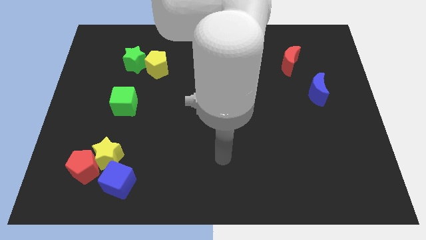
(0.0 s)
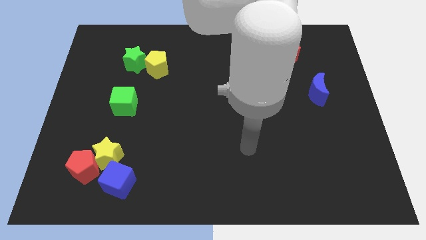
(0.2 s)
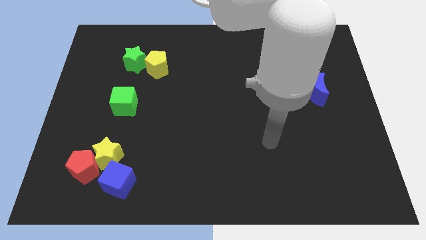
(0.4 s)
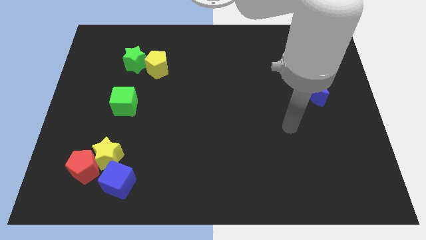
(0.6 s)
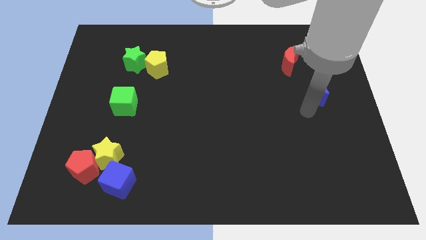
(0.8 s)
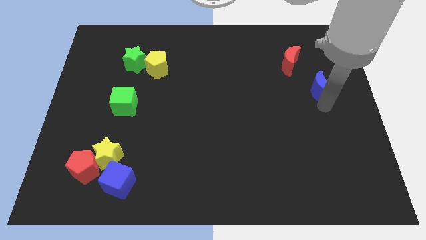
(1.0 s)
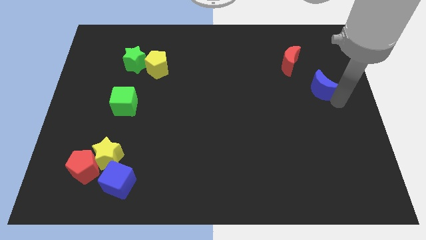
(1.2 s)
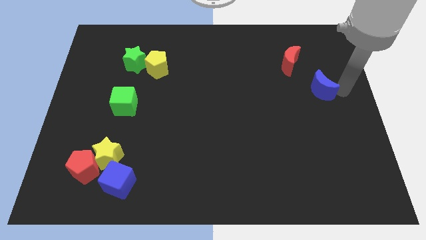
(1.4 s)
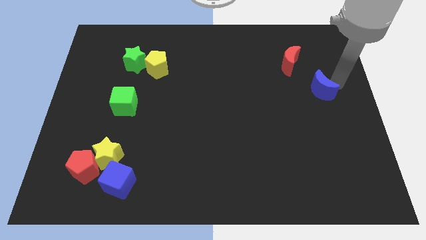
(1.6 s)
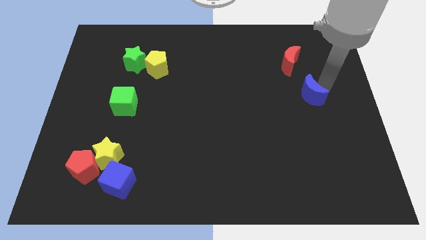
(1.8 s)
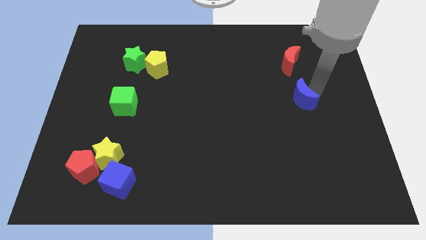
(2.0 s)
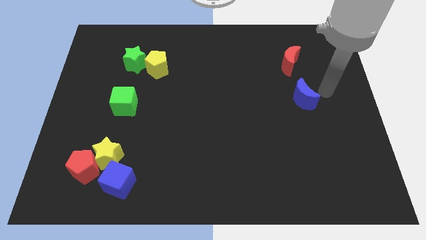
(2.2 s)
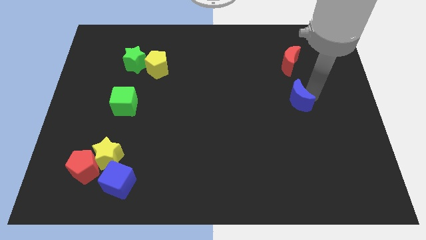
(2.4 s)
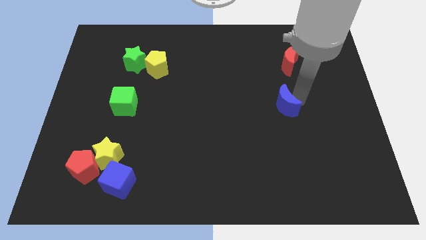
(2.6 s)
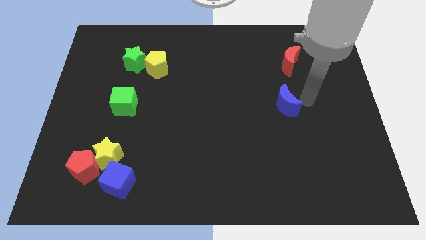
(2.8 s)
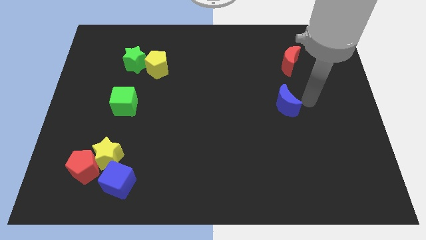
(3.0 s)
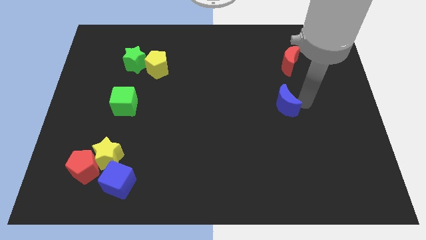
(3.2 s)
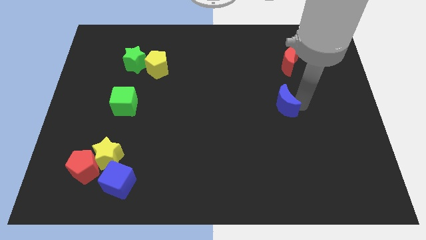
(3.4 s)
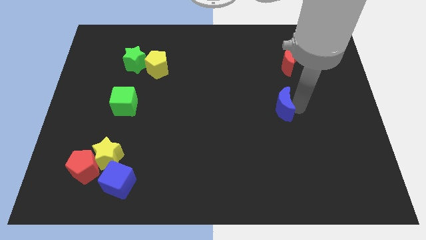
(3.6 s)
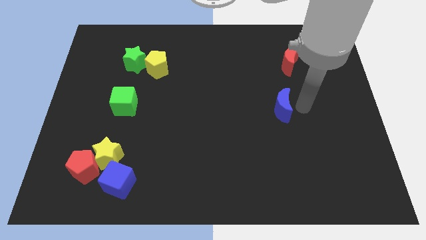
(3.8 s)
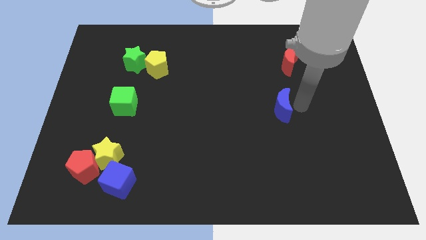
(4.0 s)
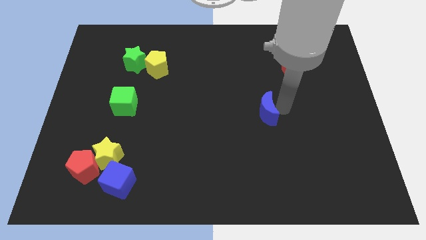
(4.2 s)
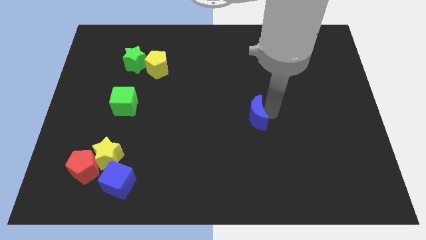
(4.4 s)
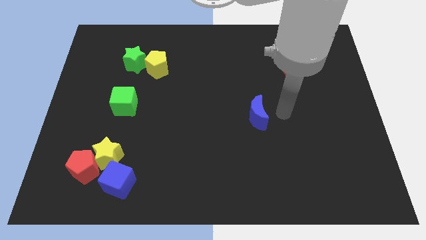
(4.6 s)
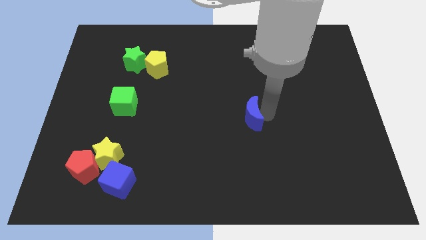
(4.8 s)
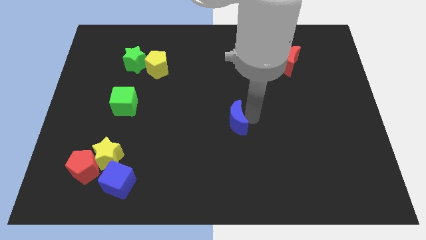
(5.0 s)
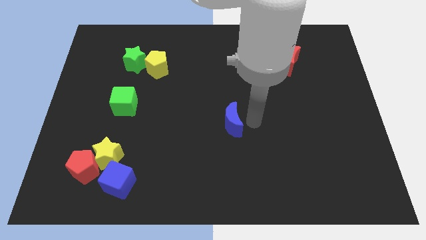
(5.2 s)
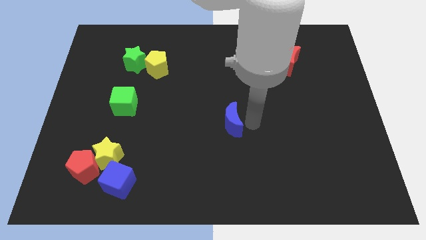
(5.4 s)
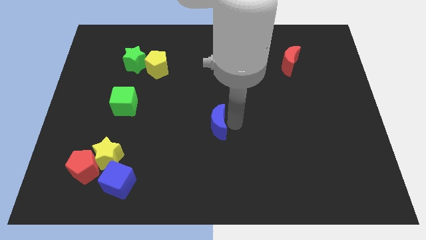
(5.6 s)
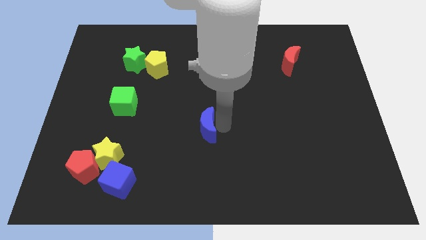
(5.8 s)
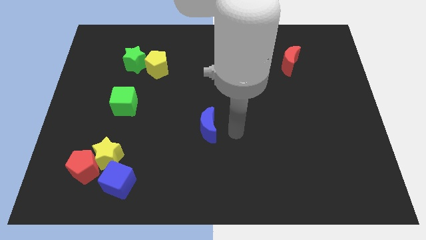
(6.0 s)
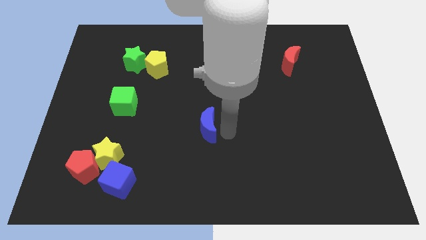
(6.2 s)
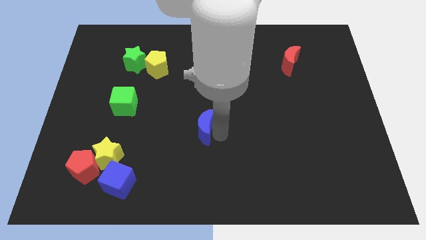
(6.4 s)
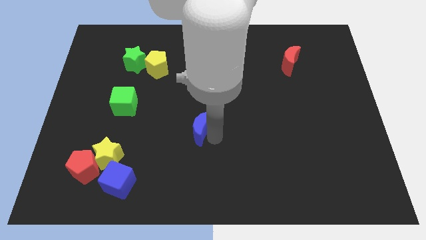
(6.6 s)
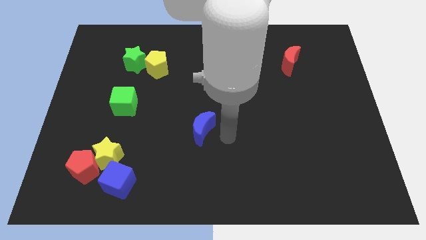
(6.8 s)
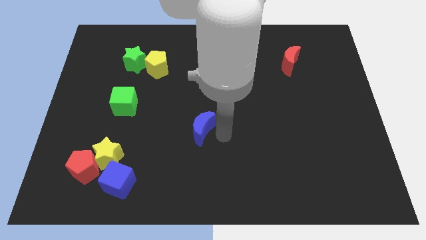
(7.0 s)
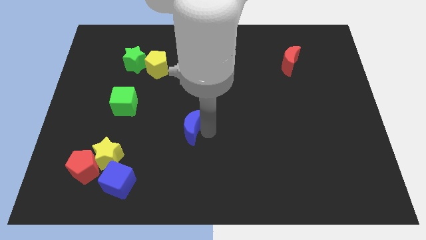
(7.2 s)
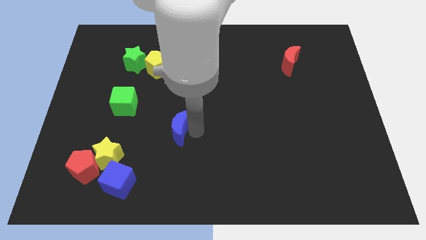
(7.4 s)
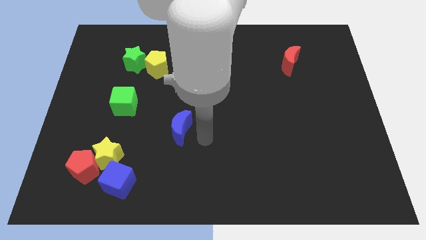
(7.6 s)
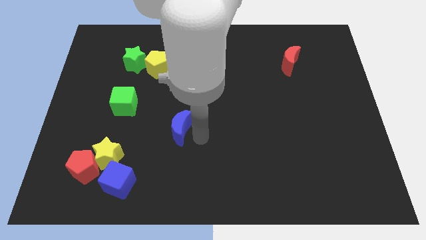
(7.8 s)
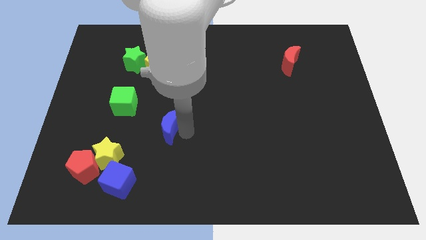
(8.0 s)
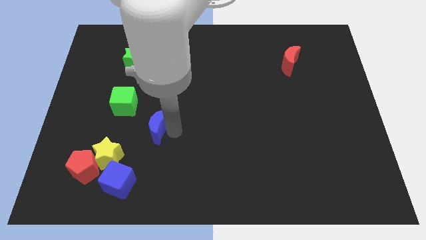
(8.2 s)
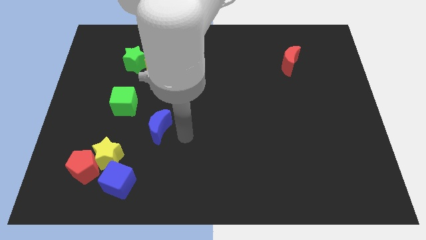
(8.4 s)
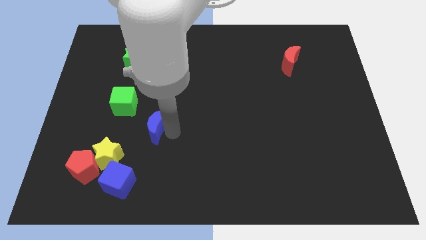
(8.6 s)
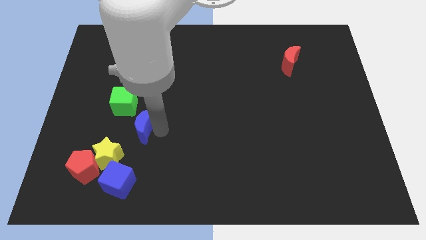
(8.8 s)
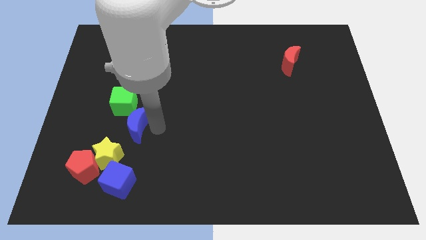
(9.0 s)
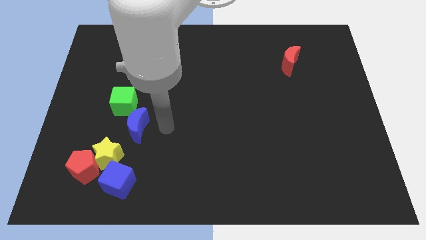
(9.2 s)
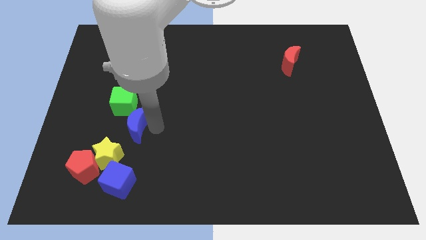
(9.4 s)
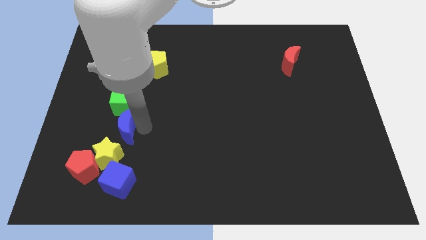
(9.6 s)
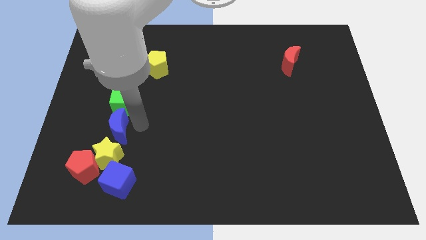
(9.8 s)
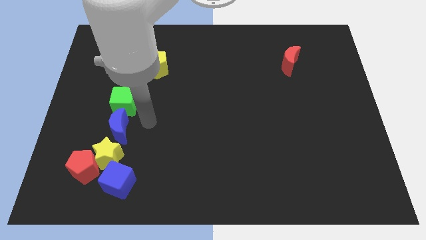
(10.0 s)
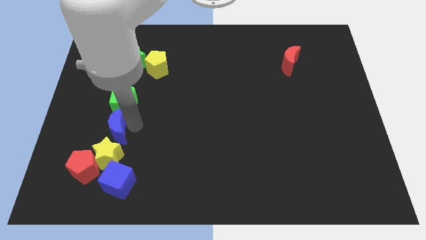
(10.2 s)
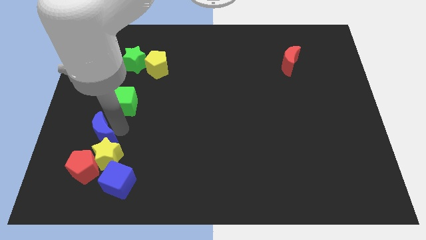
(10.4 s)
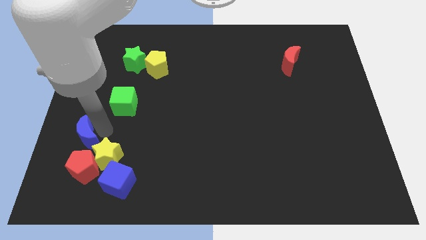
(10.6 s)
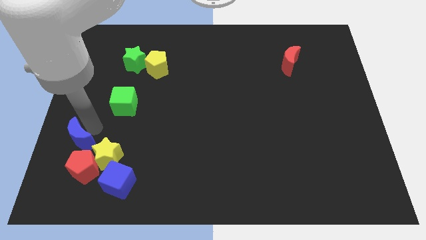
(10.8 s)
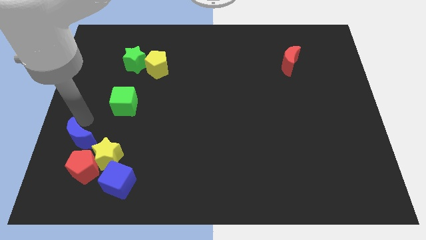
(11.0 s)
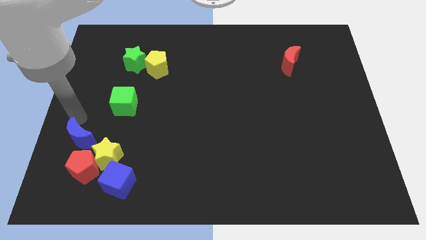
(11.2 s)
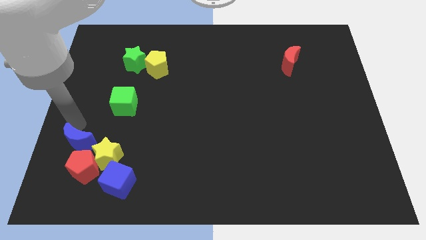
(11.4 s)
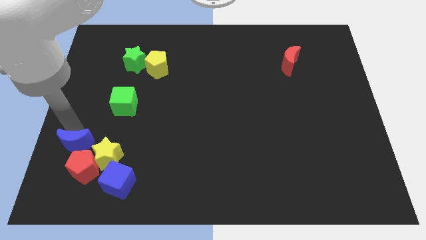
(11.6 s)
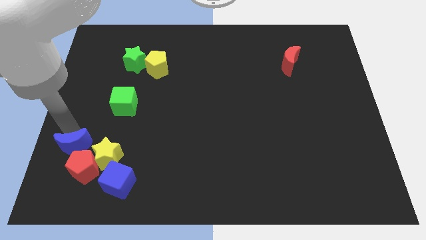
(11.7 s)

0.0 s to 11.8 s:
put the blue moon to the red pentagon

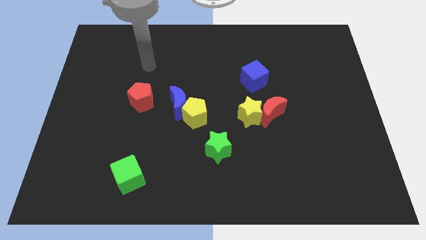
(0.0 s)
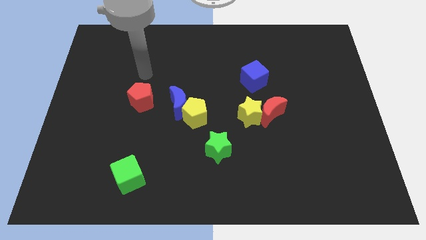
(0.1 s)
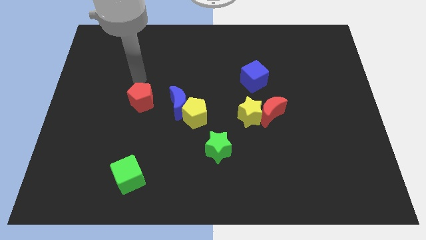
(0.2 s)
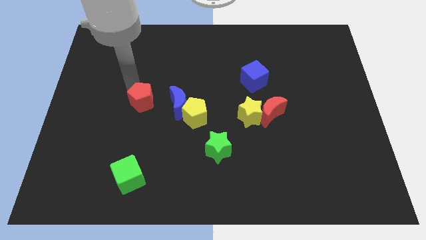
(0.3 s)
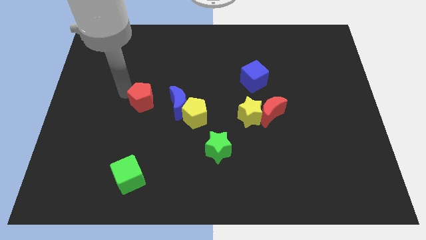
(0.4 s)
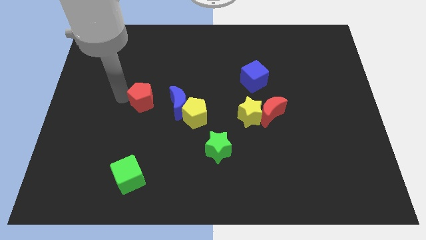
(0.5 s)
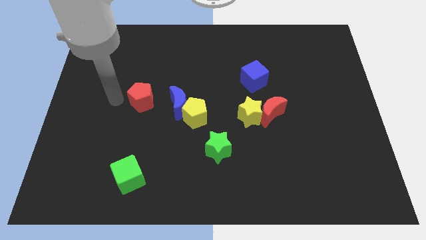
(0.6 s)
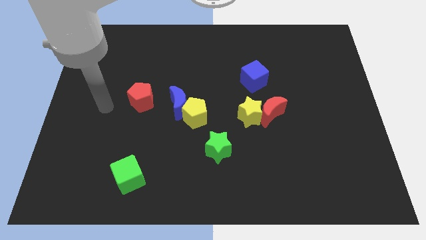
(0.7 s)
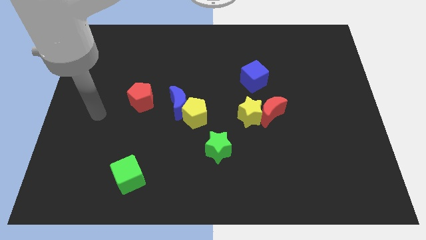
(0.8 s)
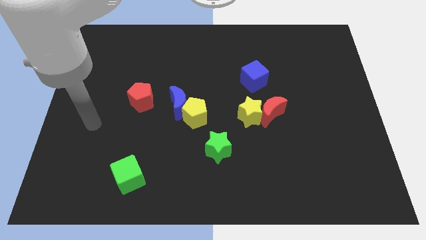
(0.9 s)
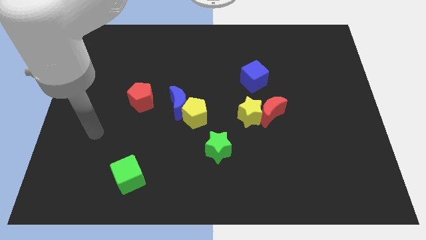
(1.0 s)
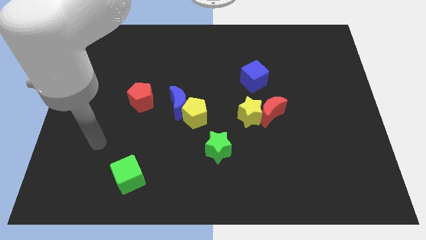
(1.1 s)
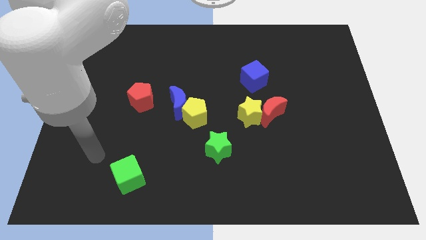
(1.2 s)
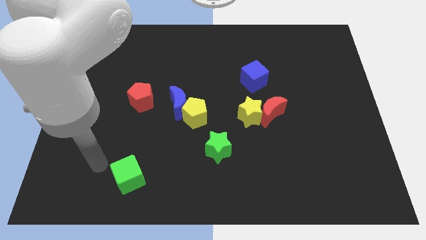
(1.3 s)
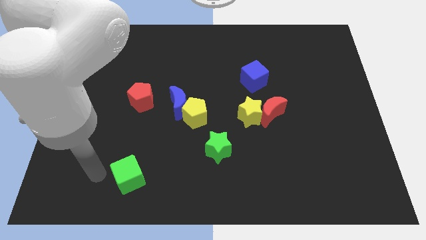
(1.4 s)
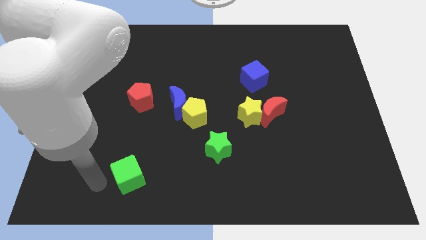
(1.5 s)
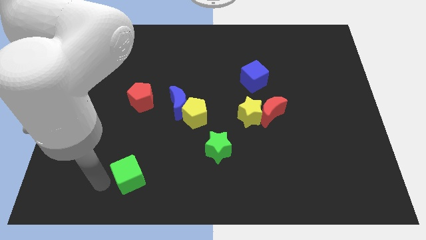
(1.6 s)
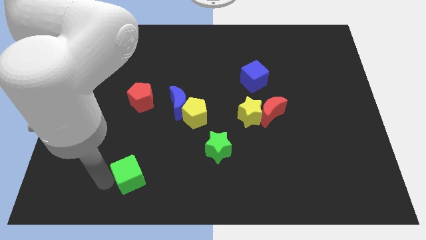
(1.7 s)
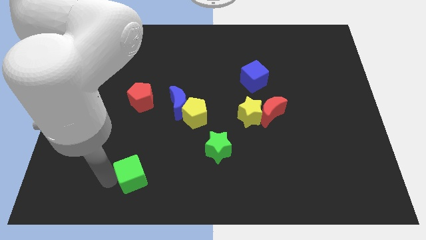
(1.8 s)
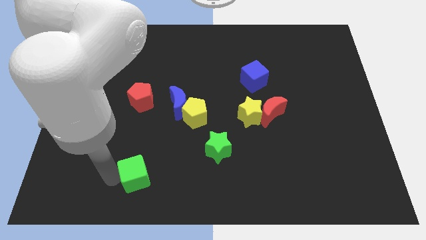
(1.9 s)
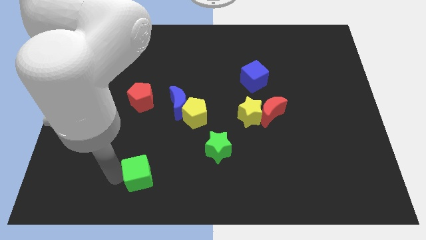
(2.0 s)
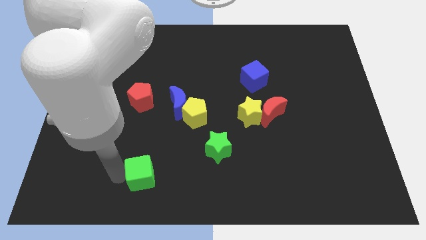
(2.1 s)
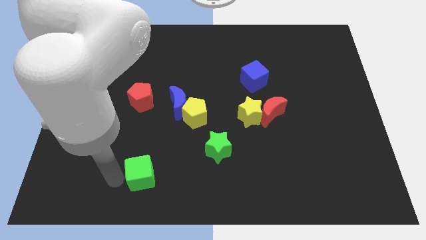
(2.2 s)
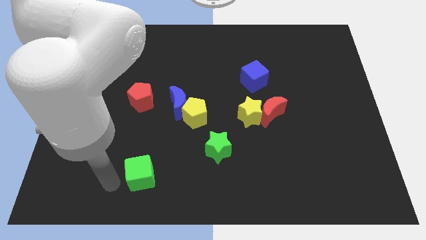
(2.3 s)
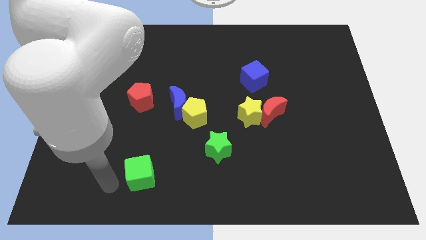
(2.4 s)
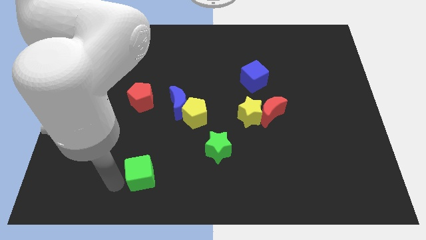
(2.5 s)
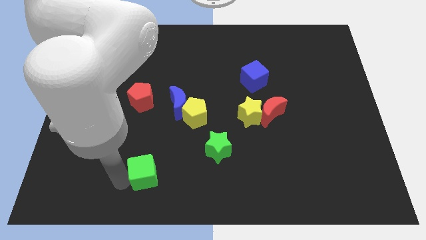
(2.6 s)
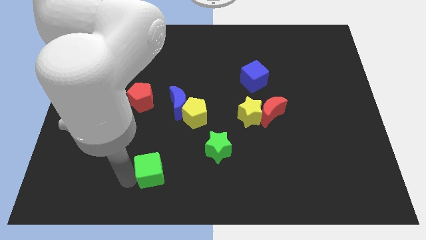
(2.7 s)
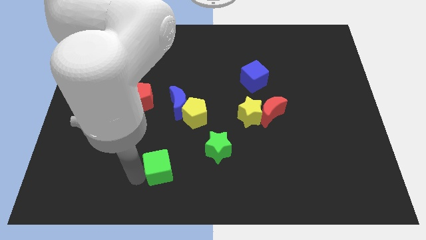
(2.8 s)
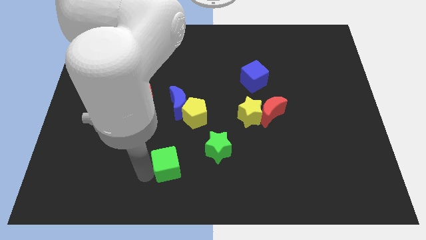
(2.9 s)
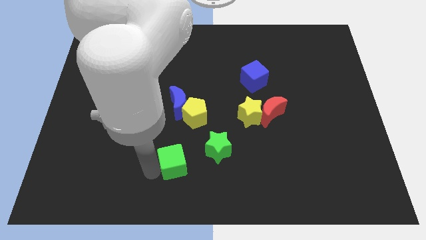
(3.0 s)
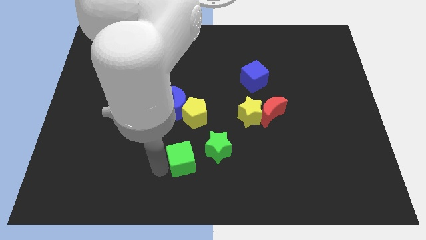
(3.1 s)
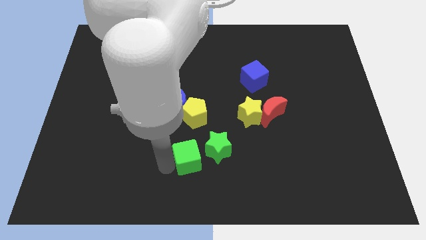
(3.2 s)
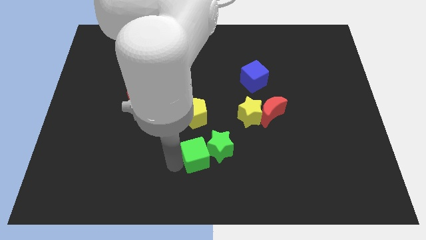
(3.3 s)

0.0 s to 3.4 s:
move the green cube to the green star
